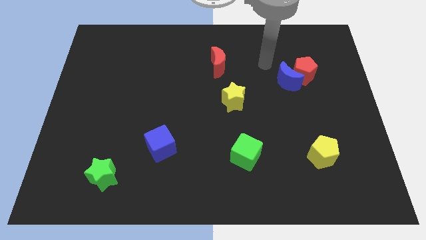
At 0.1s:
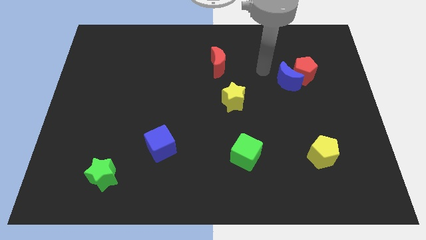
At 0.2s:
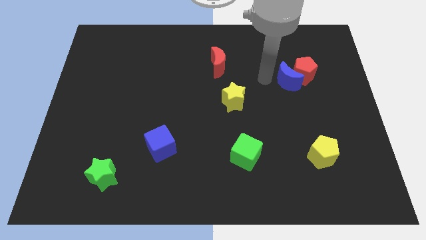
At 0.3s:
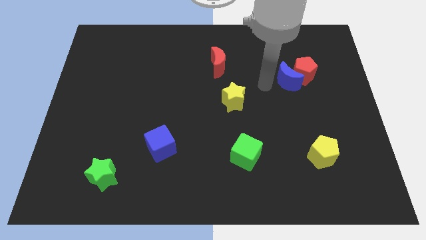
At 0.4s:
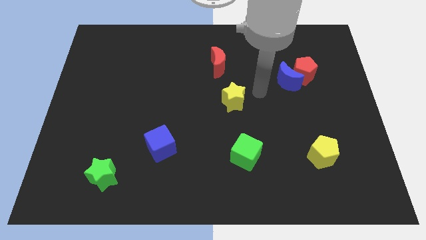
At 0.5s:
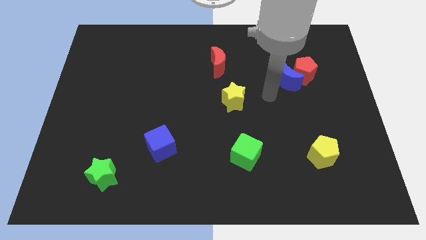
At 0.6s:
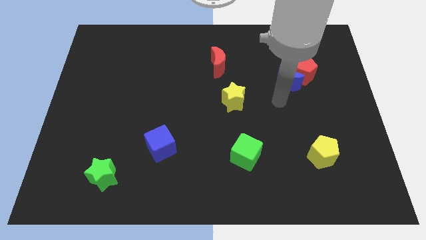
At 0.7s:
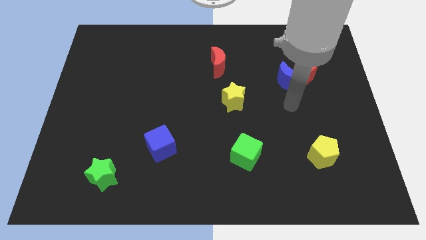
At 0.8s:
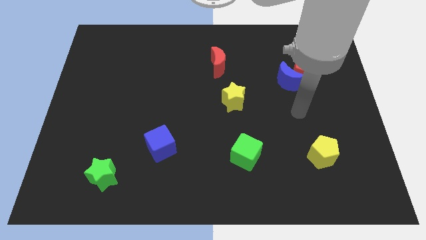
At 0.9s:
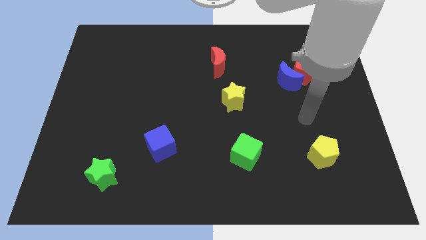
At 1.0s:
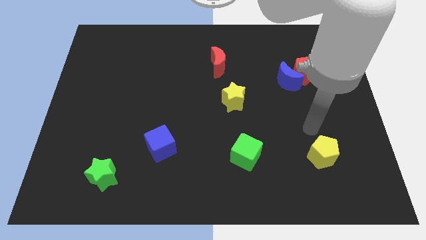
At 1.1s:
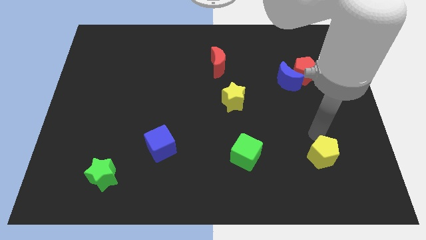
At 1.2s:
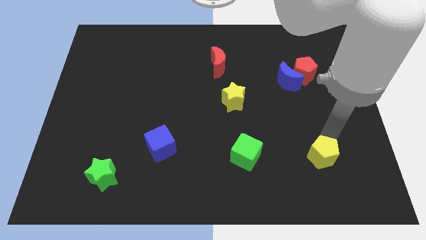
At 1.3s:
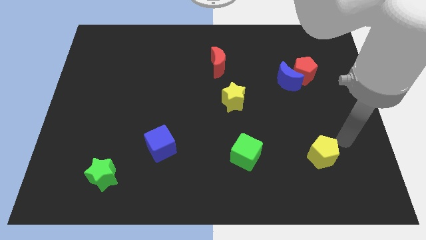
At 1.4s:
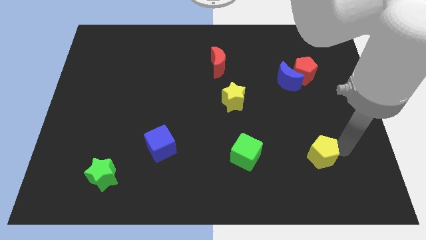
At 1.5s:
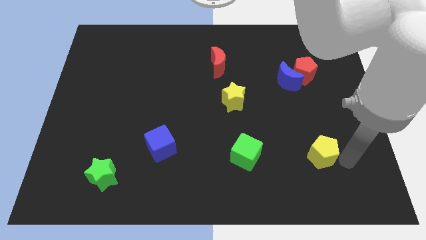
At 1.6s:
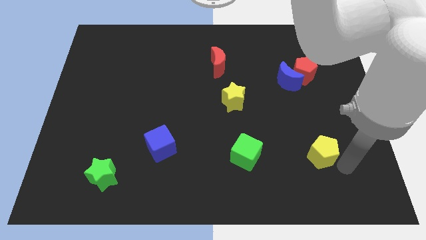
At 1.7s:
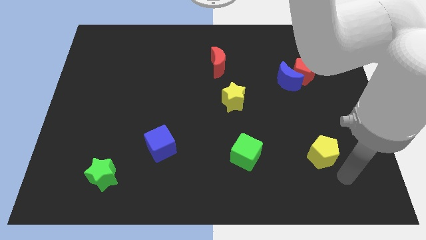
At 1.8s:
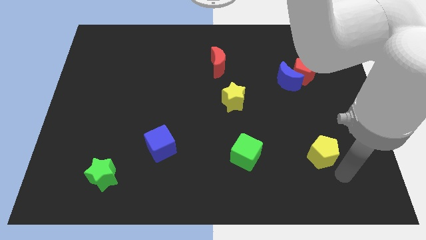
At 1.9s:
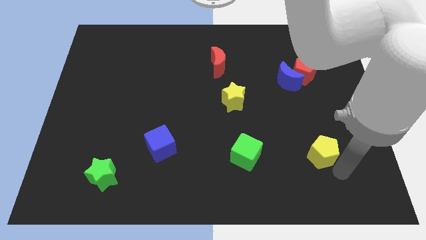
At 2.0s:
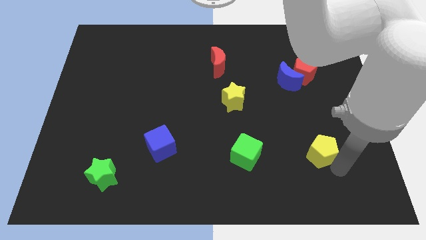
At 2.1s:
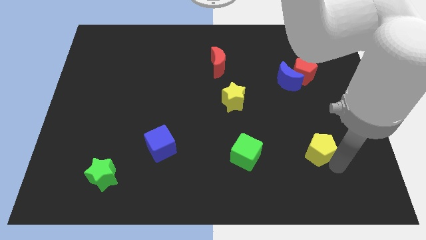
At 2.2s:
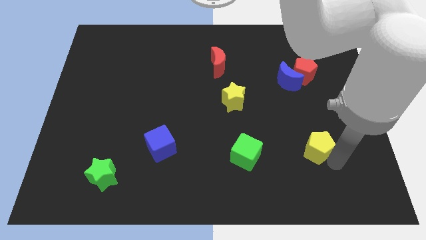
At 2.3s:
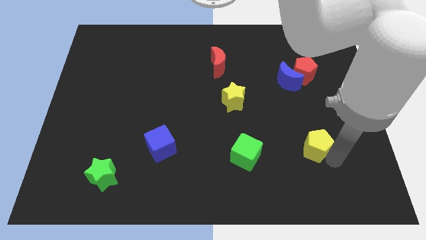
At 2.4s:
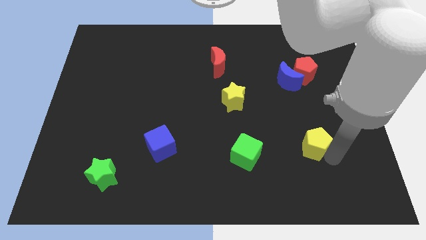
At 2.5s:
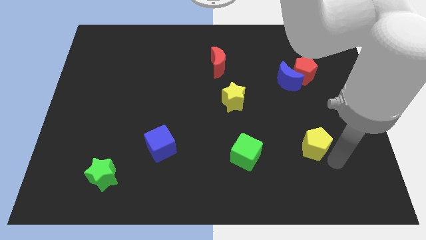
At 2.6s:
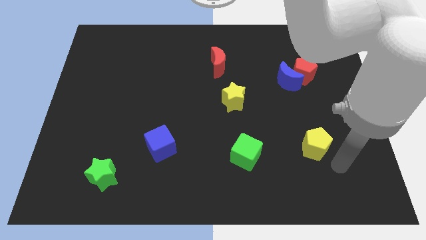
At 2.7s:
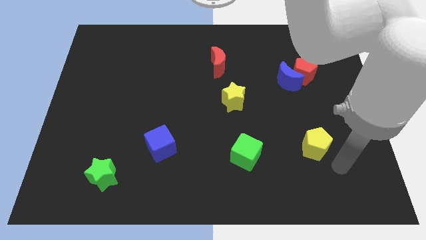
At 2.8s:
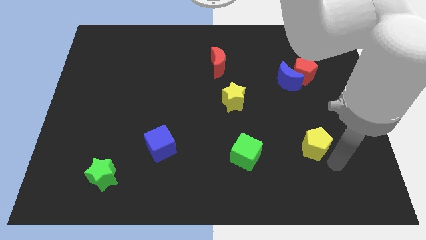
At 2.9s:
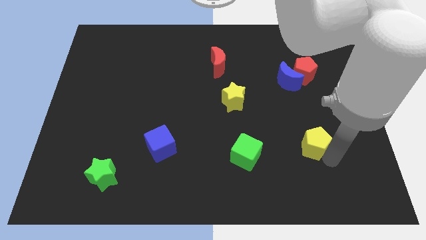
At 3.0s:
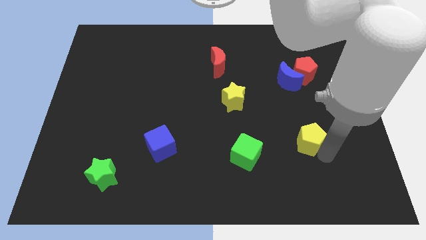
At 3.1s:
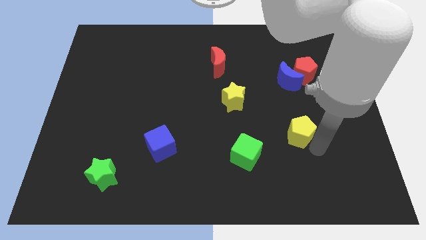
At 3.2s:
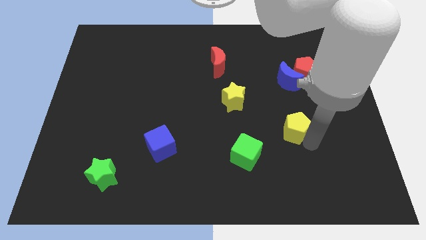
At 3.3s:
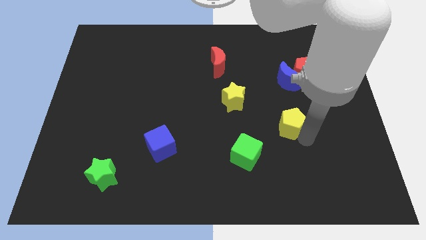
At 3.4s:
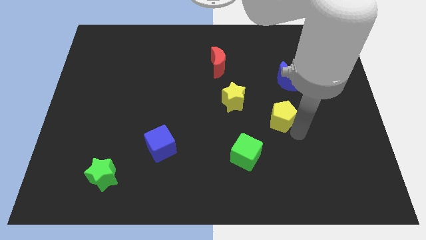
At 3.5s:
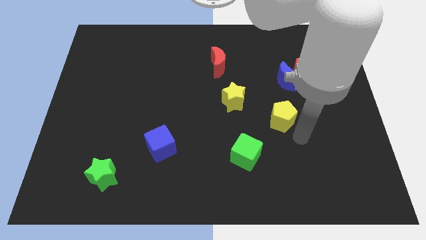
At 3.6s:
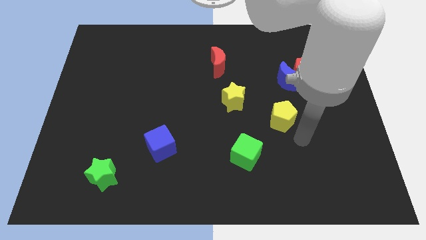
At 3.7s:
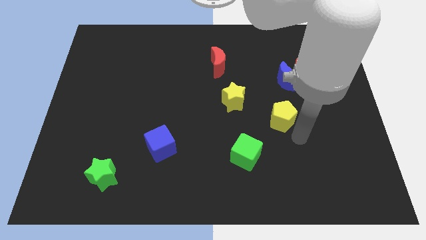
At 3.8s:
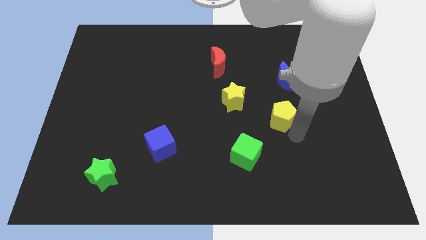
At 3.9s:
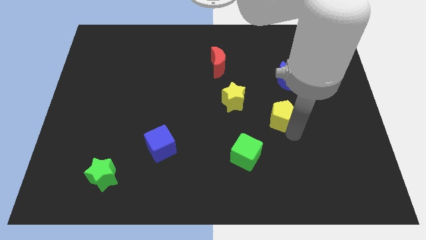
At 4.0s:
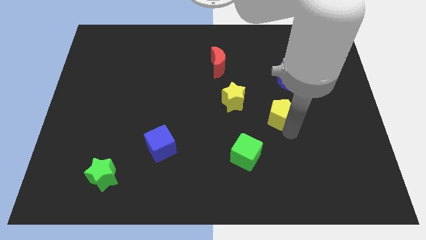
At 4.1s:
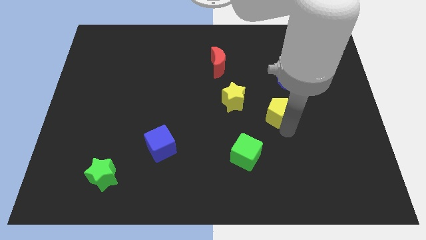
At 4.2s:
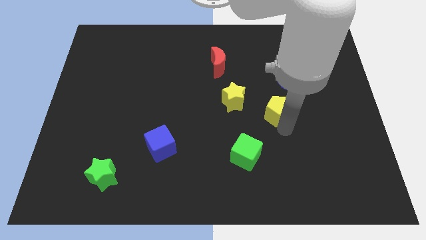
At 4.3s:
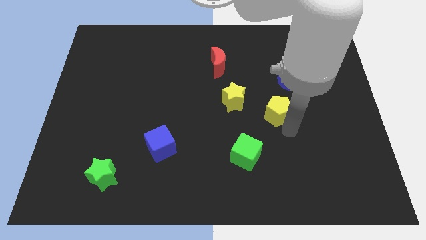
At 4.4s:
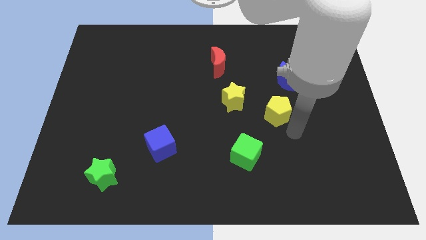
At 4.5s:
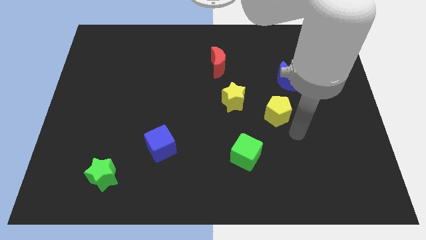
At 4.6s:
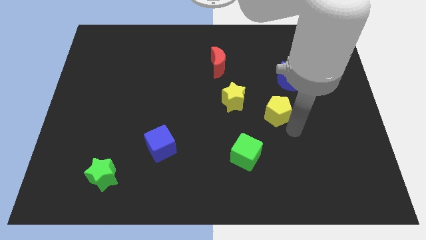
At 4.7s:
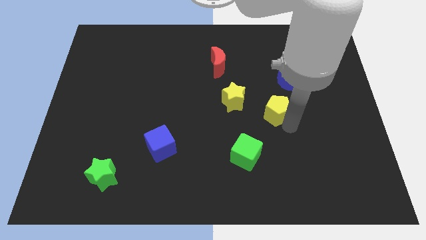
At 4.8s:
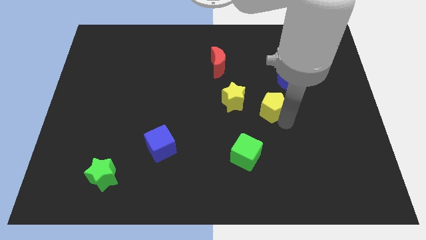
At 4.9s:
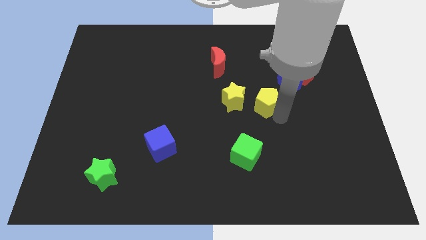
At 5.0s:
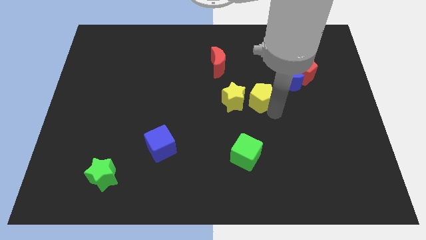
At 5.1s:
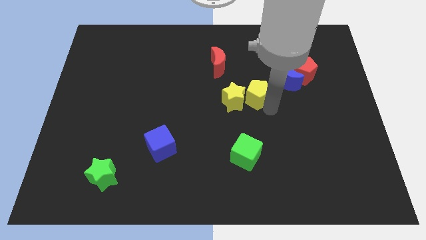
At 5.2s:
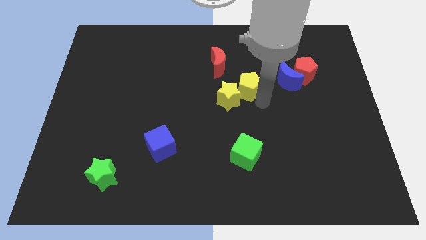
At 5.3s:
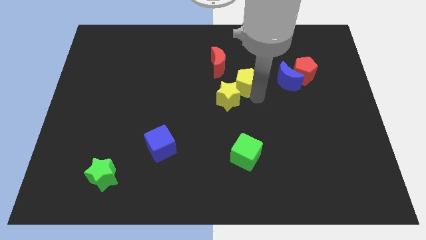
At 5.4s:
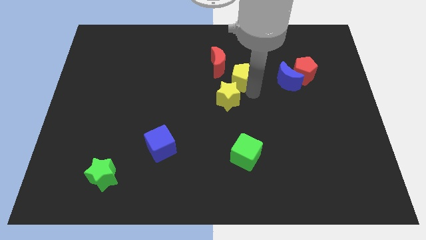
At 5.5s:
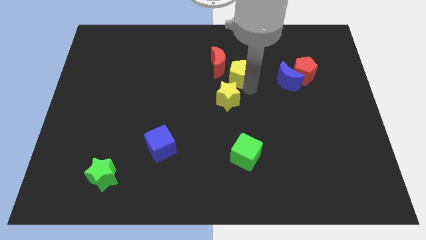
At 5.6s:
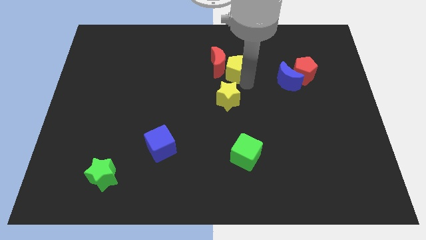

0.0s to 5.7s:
push the yellow pentagon to the red moon

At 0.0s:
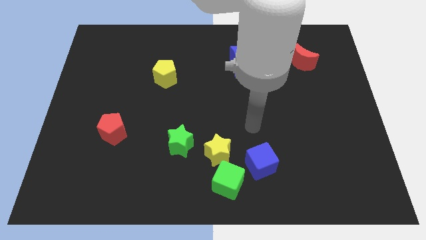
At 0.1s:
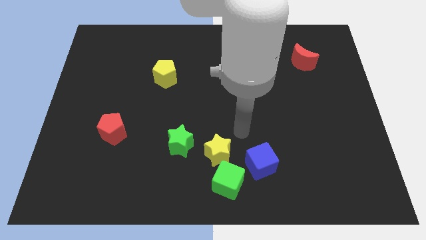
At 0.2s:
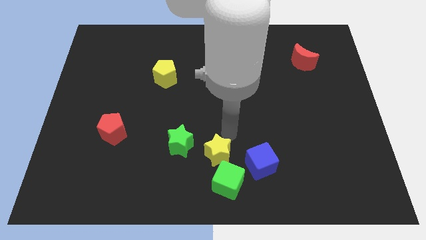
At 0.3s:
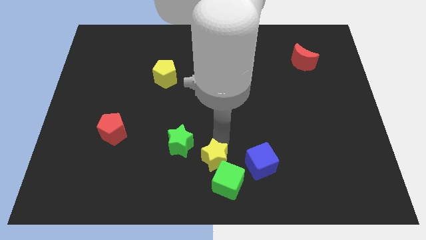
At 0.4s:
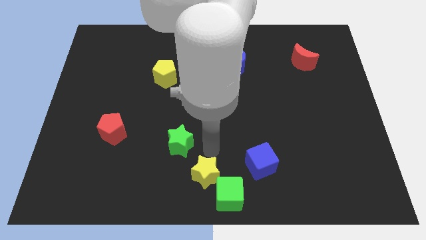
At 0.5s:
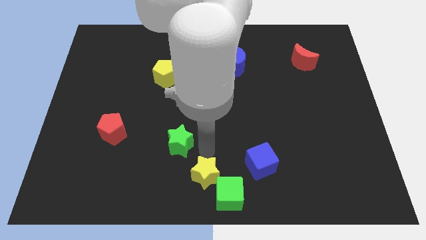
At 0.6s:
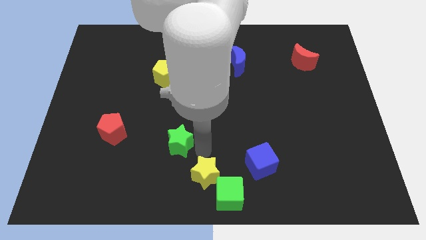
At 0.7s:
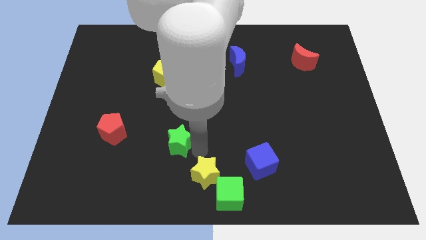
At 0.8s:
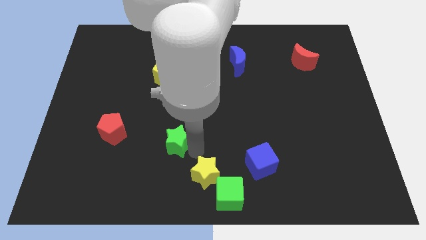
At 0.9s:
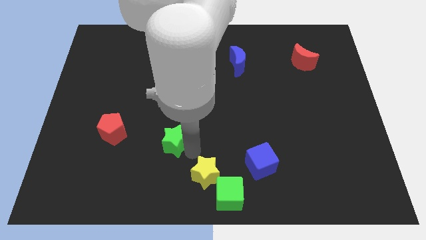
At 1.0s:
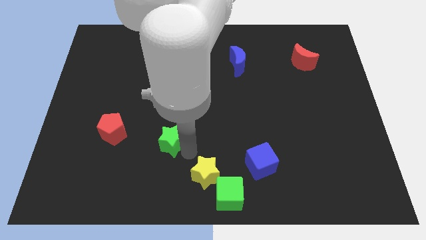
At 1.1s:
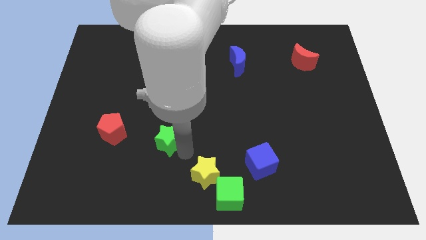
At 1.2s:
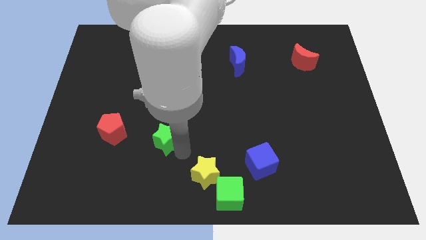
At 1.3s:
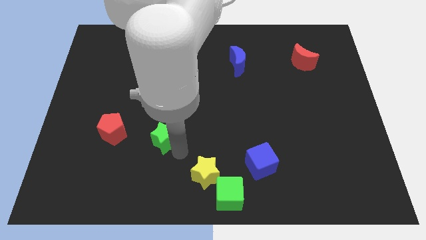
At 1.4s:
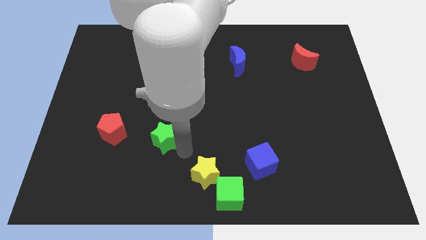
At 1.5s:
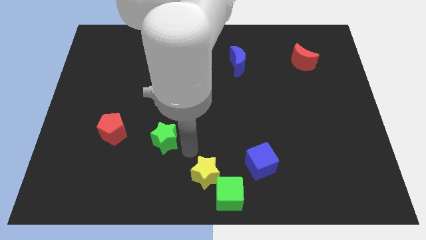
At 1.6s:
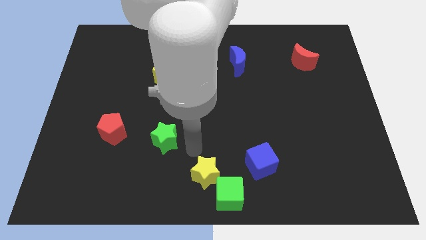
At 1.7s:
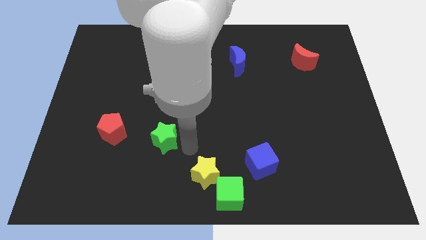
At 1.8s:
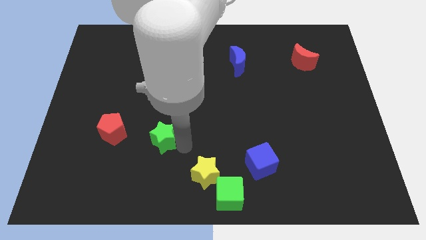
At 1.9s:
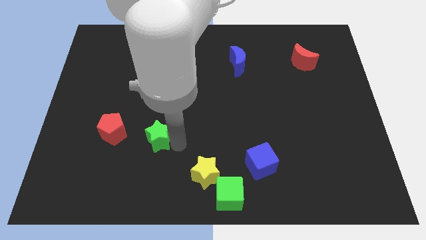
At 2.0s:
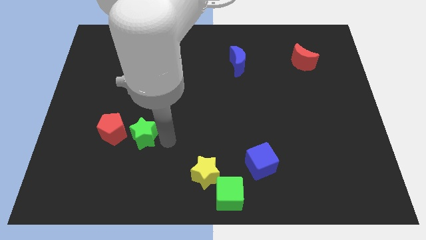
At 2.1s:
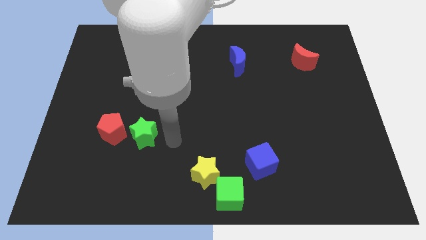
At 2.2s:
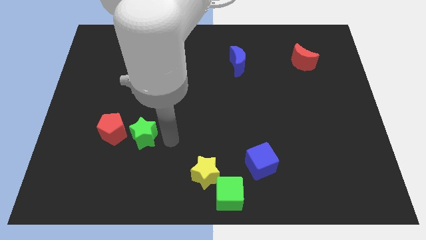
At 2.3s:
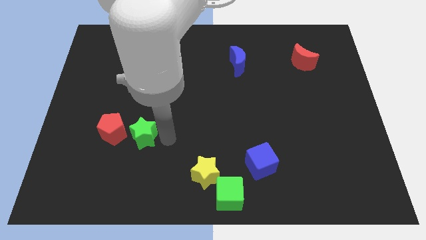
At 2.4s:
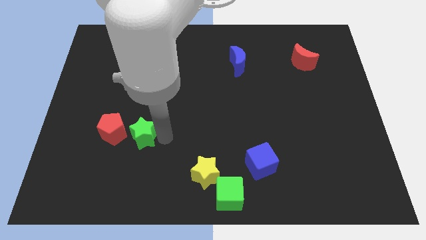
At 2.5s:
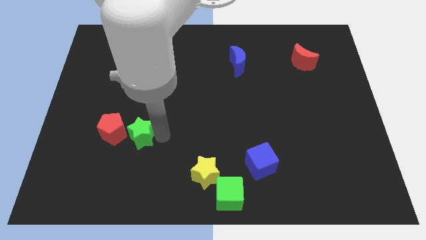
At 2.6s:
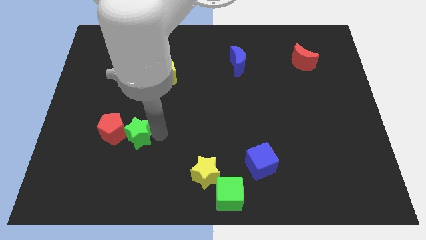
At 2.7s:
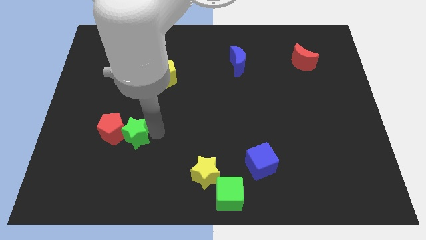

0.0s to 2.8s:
move the green star towards the red pentagon
